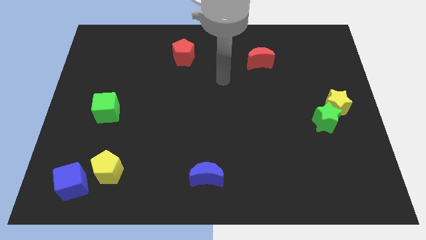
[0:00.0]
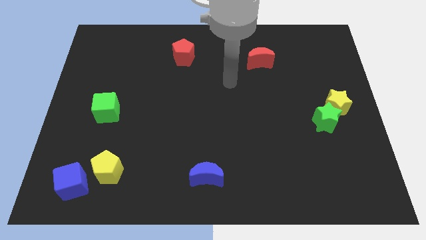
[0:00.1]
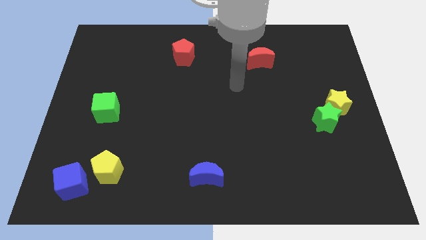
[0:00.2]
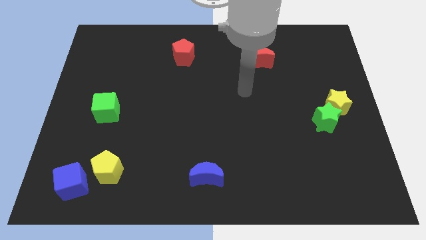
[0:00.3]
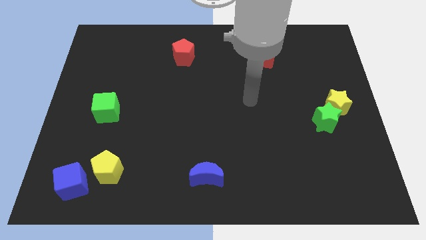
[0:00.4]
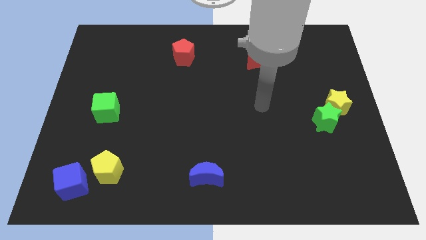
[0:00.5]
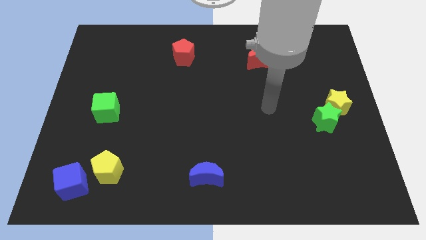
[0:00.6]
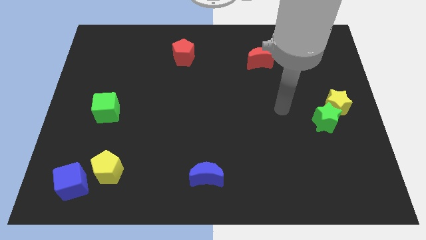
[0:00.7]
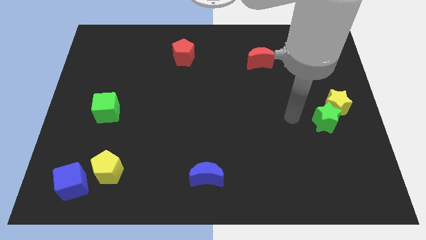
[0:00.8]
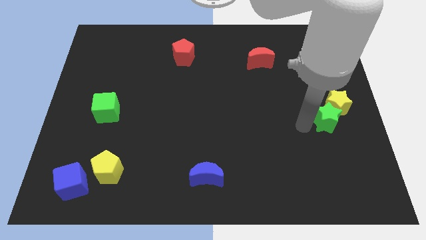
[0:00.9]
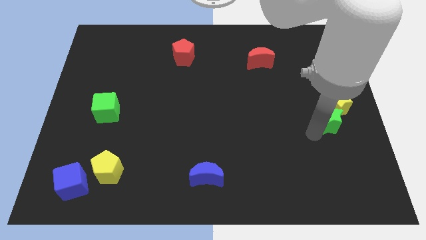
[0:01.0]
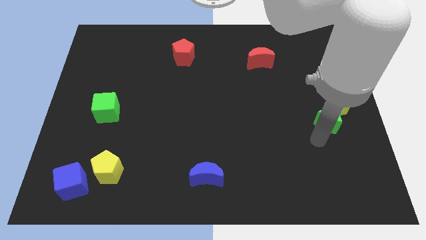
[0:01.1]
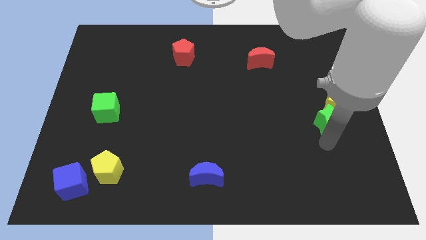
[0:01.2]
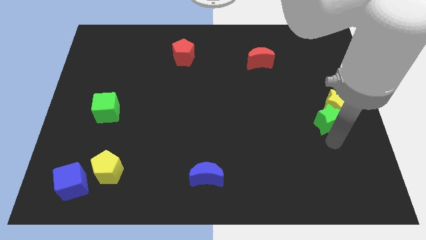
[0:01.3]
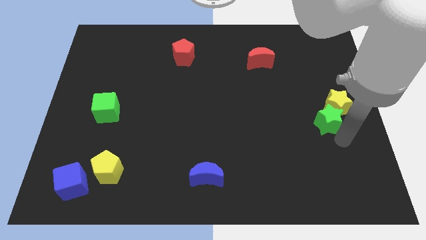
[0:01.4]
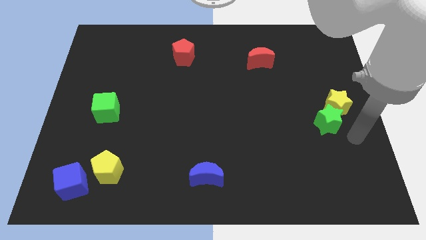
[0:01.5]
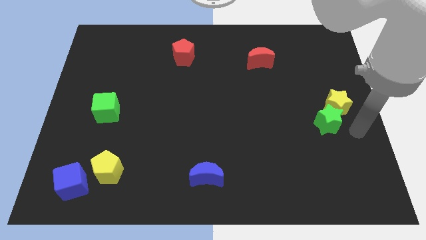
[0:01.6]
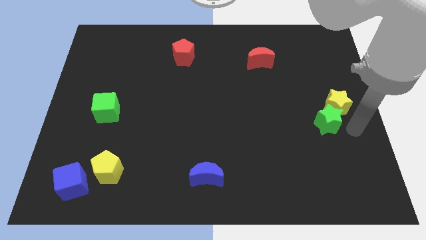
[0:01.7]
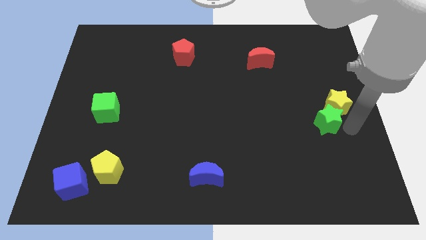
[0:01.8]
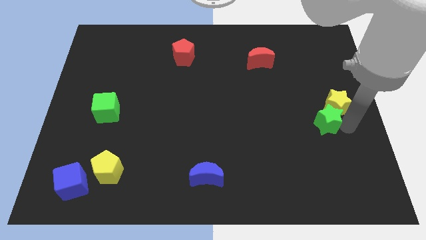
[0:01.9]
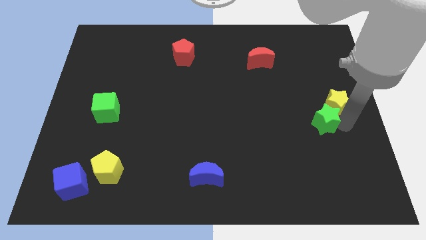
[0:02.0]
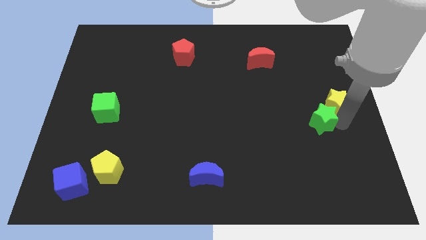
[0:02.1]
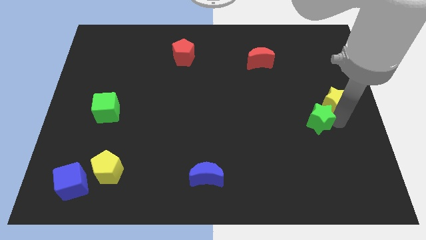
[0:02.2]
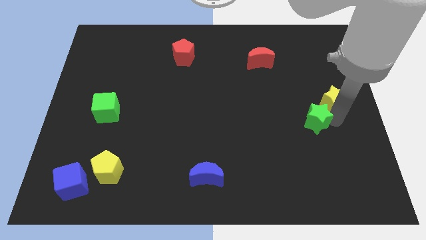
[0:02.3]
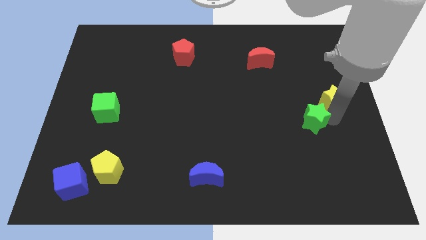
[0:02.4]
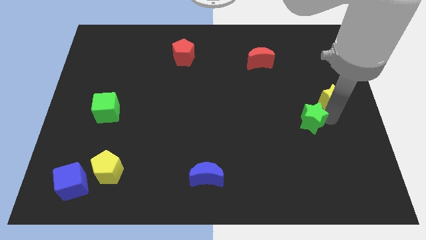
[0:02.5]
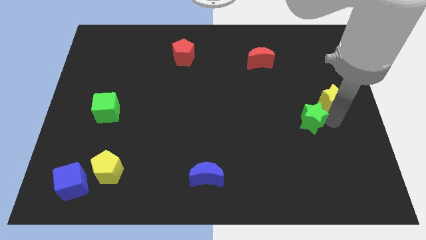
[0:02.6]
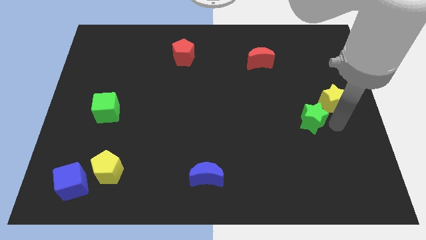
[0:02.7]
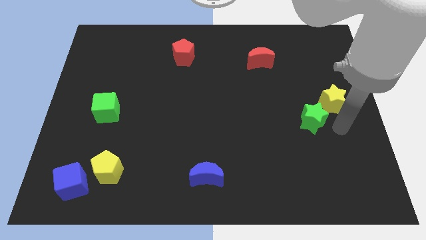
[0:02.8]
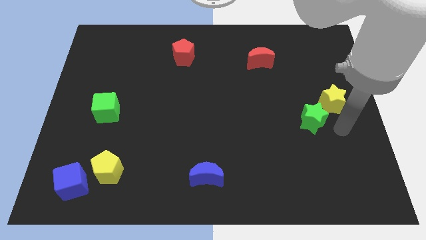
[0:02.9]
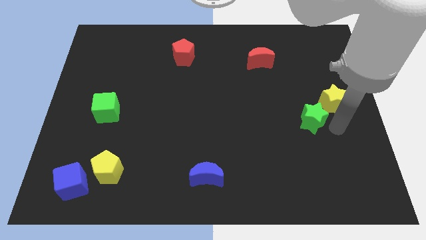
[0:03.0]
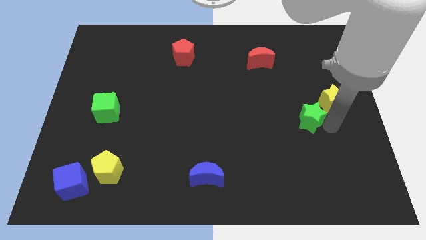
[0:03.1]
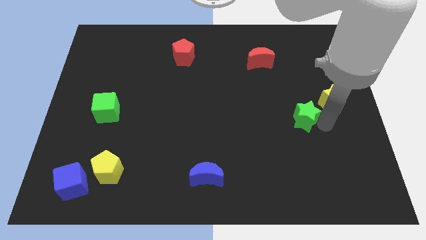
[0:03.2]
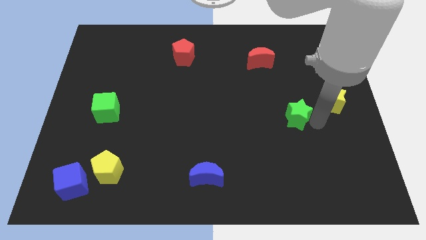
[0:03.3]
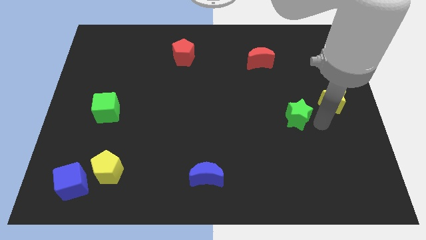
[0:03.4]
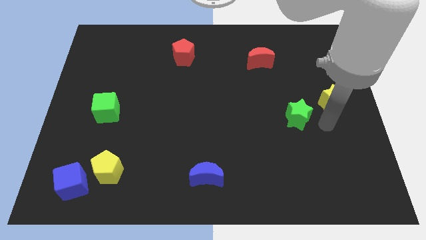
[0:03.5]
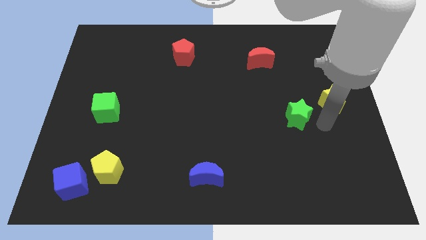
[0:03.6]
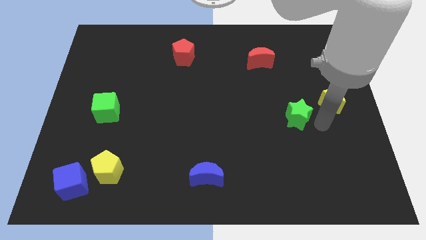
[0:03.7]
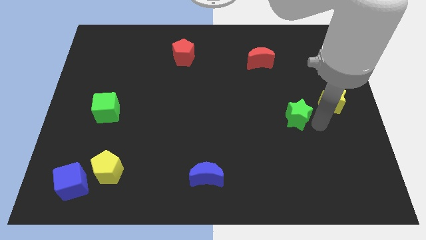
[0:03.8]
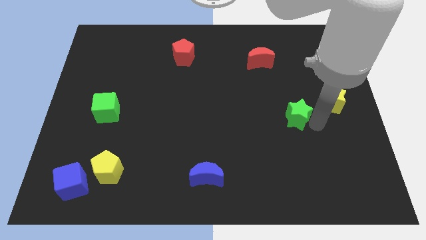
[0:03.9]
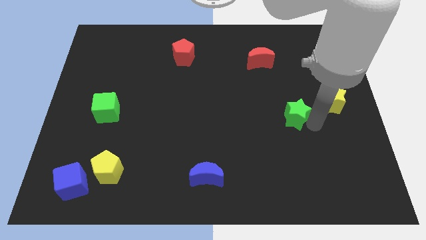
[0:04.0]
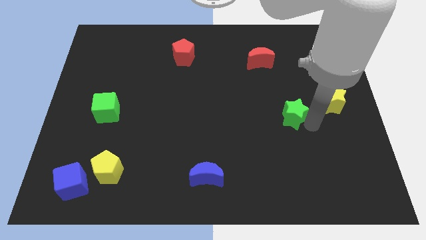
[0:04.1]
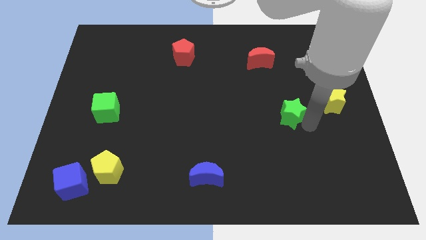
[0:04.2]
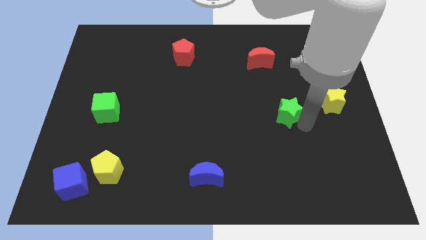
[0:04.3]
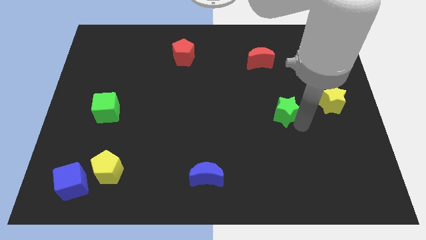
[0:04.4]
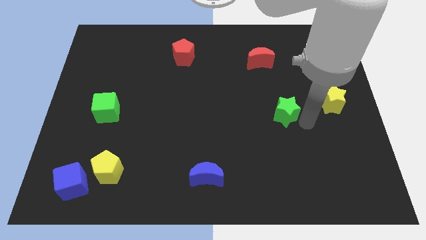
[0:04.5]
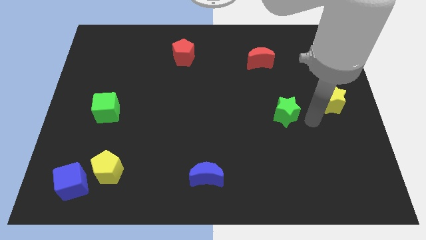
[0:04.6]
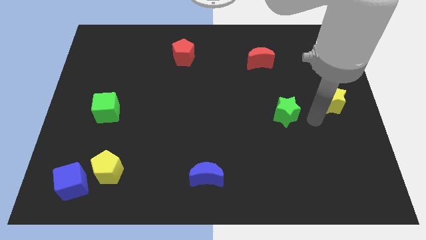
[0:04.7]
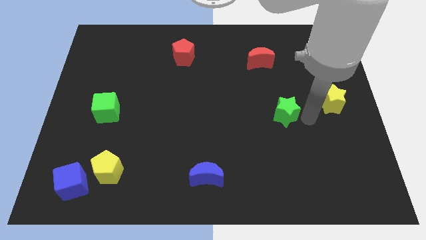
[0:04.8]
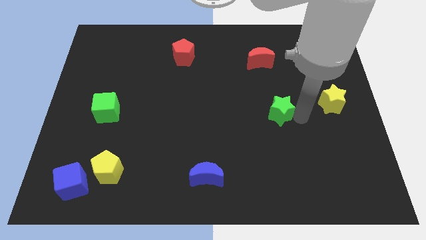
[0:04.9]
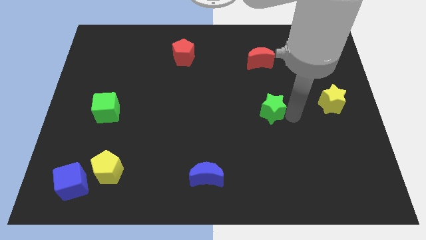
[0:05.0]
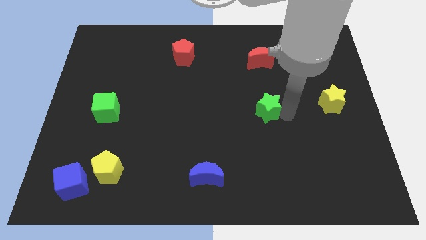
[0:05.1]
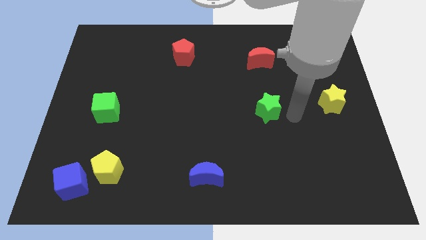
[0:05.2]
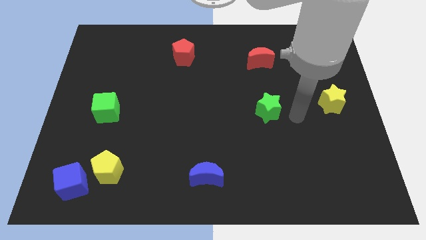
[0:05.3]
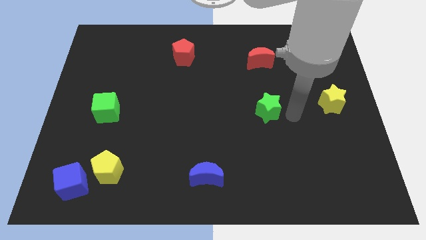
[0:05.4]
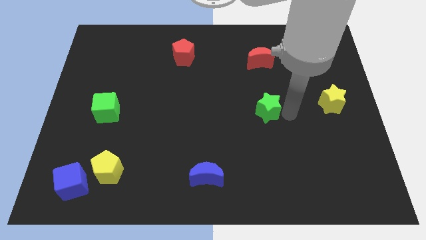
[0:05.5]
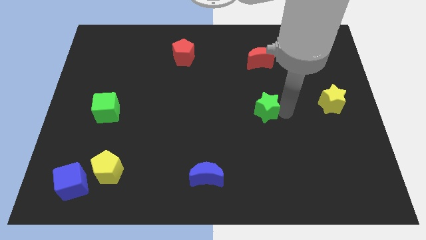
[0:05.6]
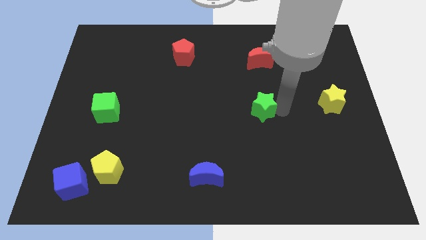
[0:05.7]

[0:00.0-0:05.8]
put the green star to the middle

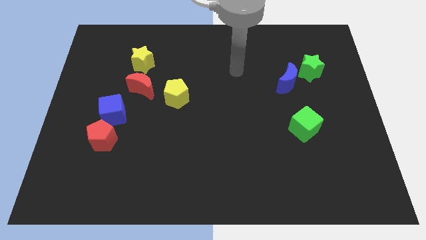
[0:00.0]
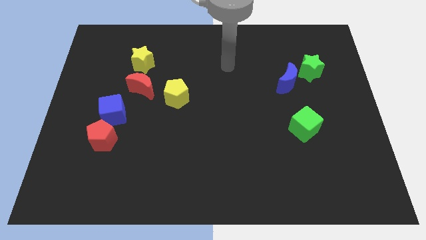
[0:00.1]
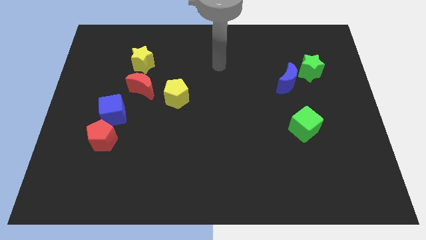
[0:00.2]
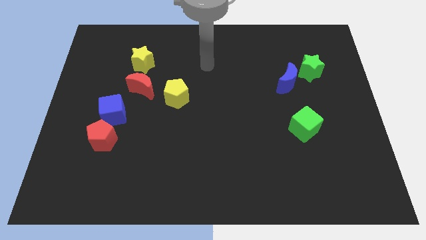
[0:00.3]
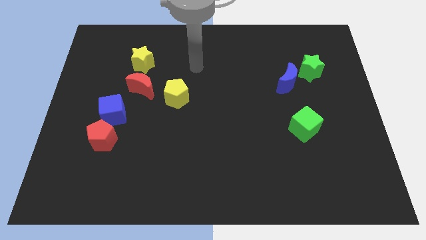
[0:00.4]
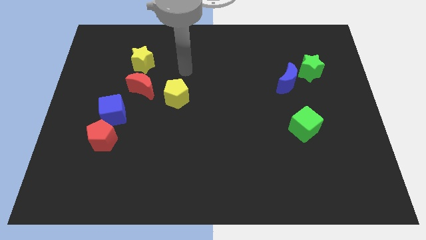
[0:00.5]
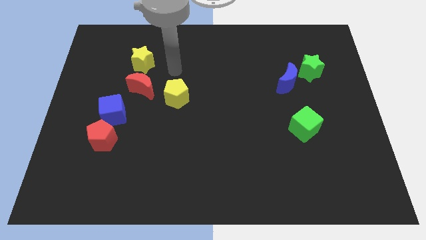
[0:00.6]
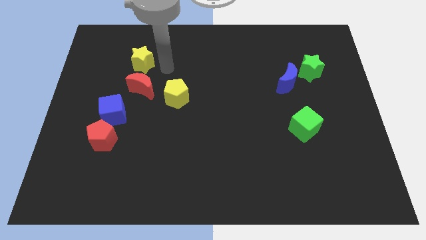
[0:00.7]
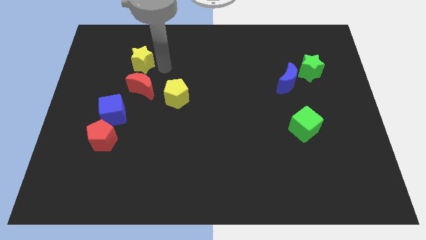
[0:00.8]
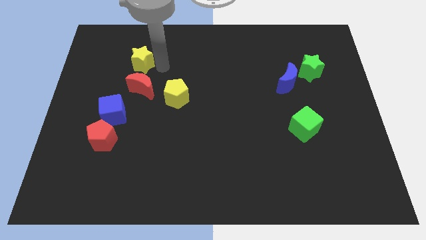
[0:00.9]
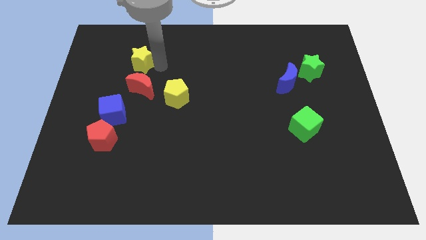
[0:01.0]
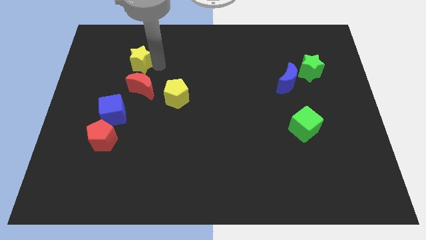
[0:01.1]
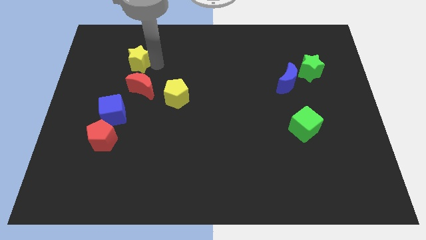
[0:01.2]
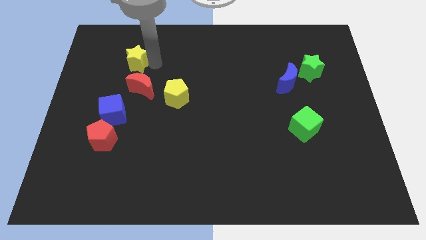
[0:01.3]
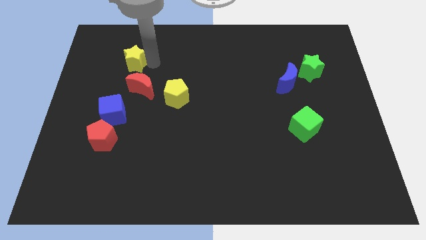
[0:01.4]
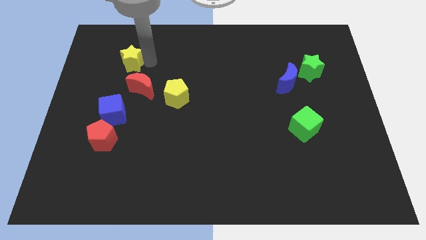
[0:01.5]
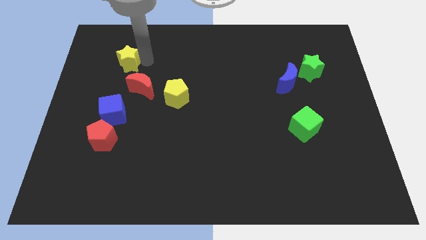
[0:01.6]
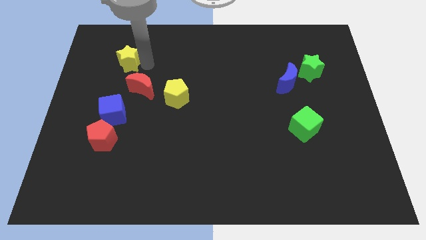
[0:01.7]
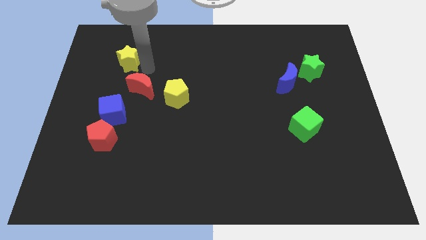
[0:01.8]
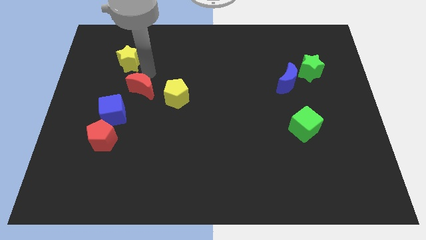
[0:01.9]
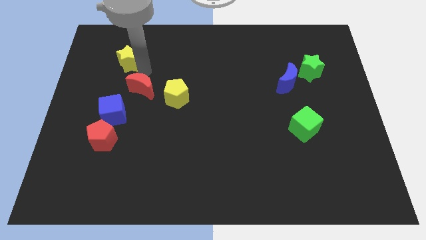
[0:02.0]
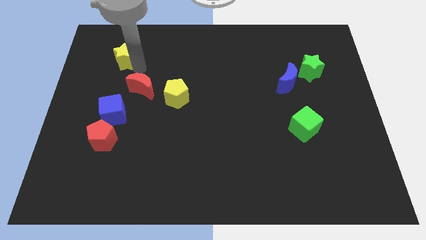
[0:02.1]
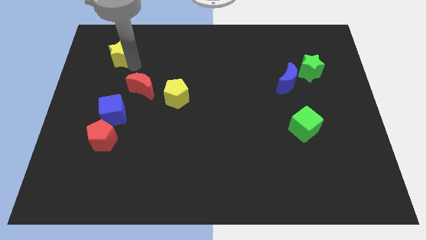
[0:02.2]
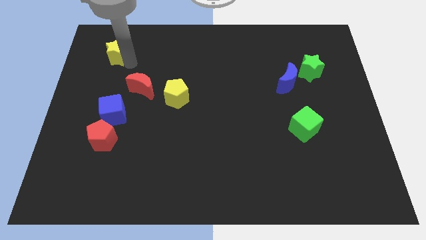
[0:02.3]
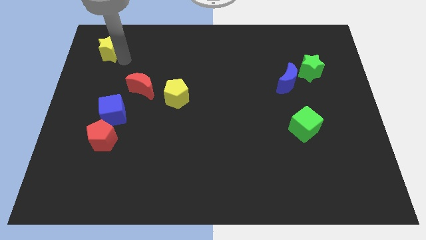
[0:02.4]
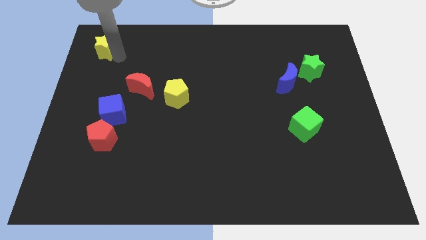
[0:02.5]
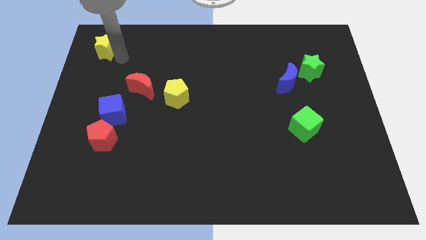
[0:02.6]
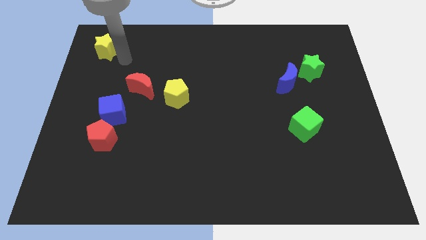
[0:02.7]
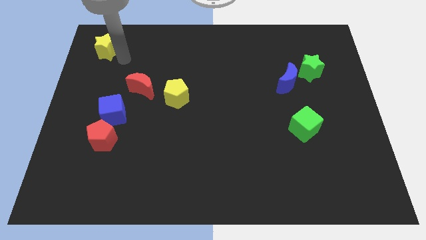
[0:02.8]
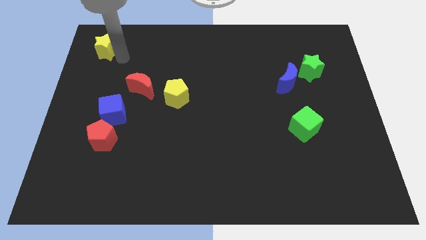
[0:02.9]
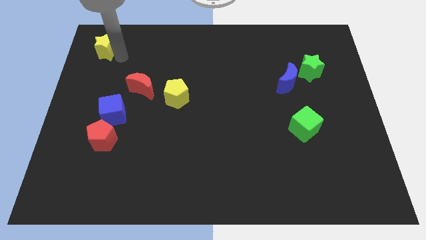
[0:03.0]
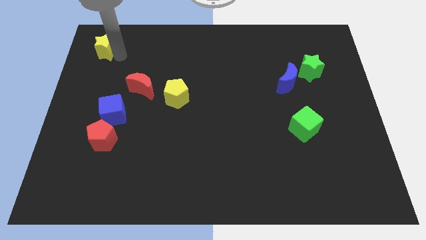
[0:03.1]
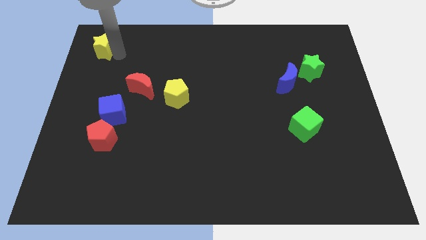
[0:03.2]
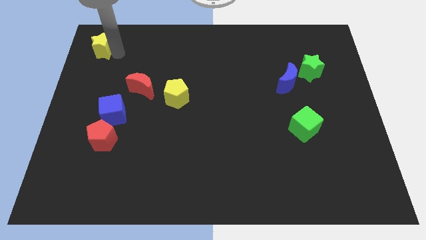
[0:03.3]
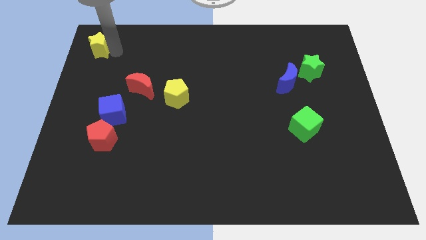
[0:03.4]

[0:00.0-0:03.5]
move the yellow star to the top left
